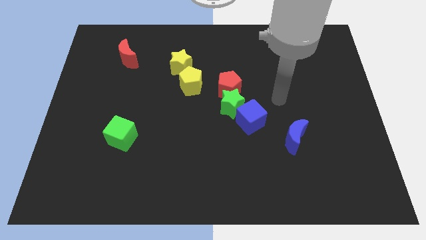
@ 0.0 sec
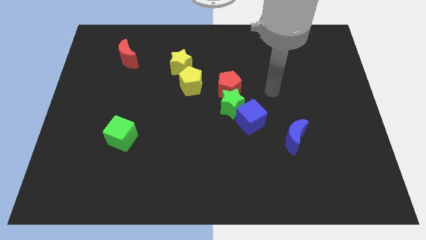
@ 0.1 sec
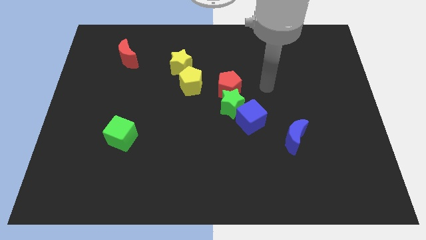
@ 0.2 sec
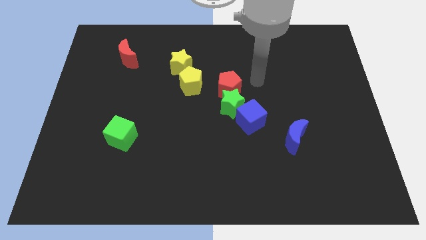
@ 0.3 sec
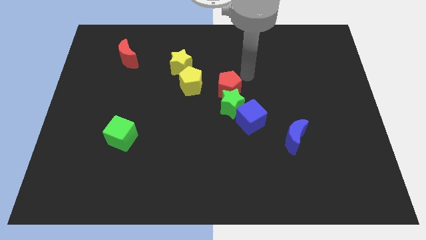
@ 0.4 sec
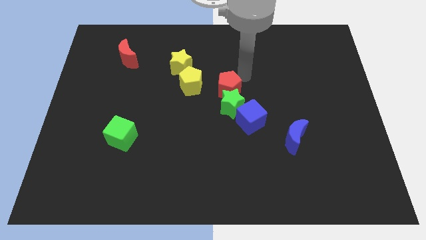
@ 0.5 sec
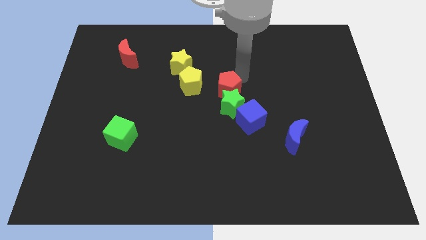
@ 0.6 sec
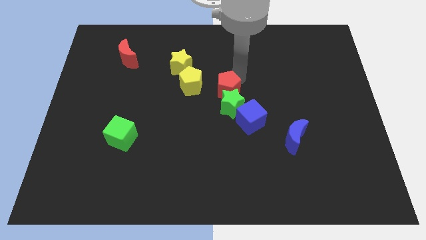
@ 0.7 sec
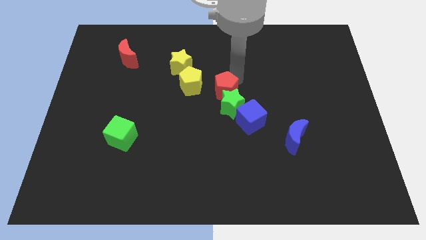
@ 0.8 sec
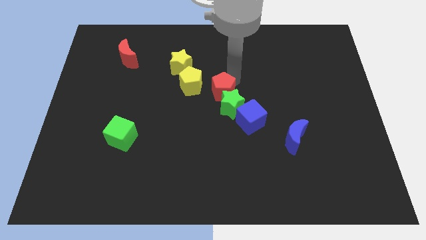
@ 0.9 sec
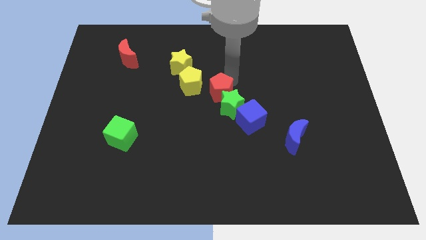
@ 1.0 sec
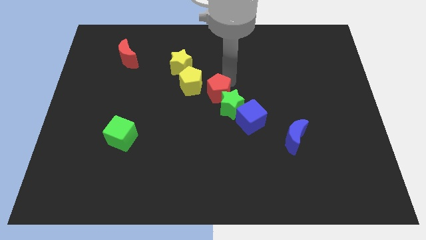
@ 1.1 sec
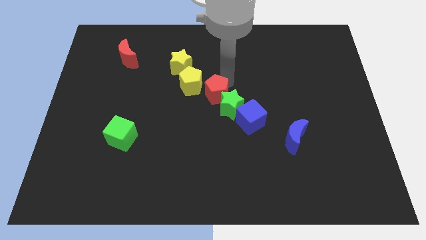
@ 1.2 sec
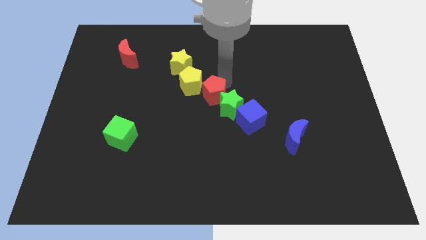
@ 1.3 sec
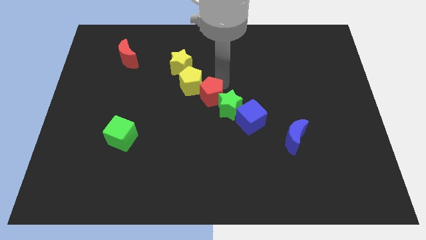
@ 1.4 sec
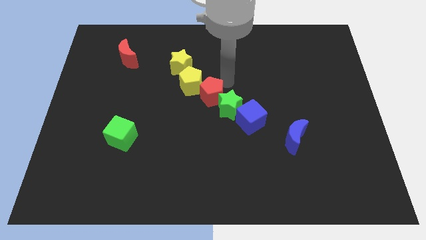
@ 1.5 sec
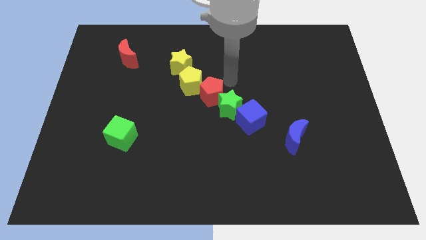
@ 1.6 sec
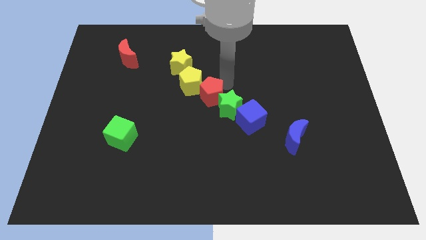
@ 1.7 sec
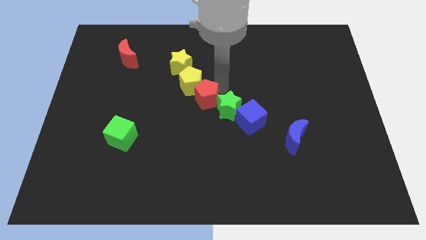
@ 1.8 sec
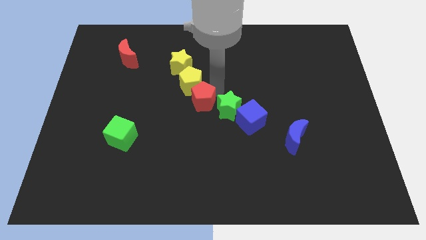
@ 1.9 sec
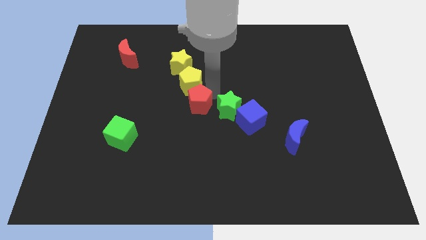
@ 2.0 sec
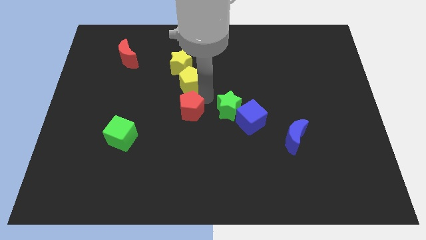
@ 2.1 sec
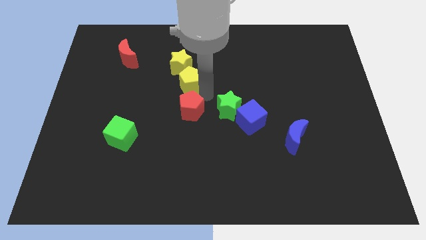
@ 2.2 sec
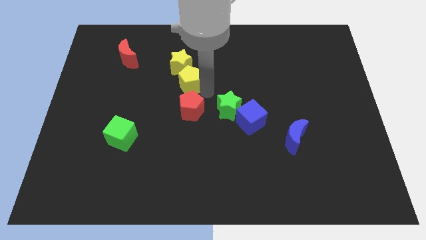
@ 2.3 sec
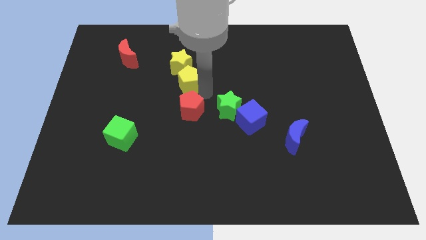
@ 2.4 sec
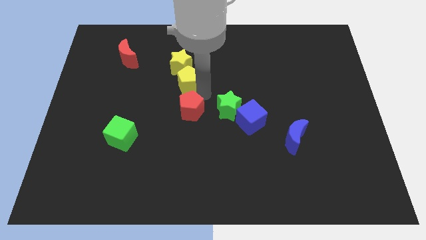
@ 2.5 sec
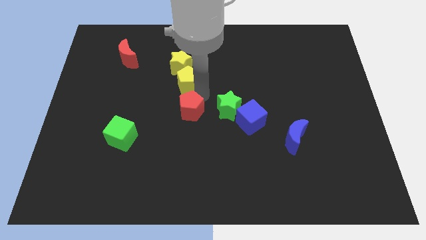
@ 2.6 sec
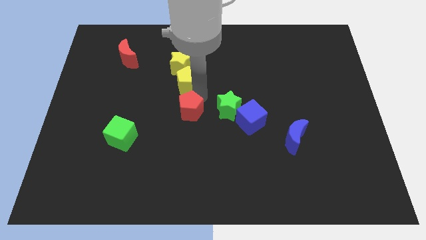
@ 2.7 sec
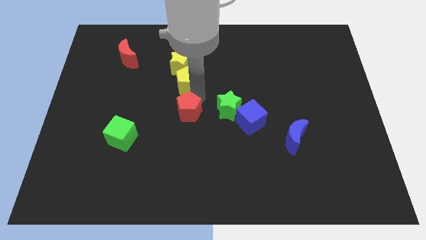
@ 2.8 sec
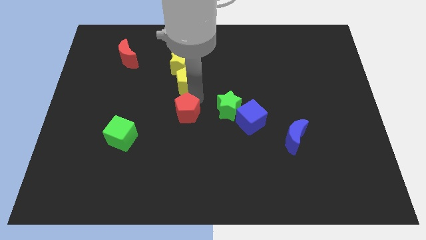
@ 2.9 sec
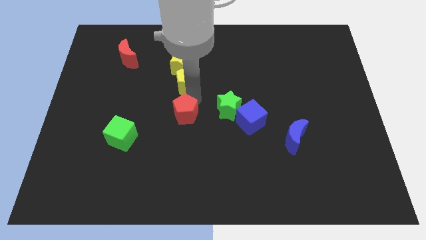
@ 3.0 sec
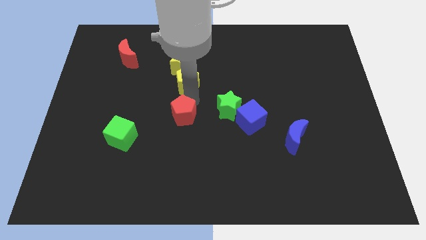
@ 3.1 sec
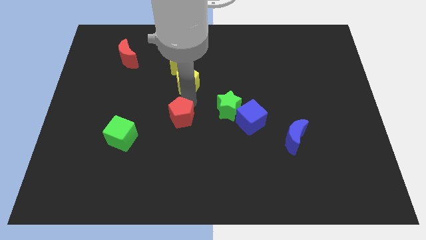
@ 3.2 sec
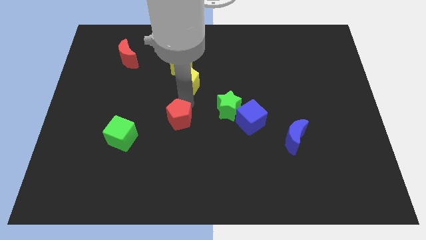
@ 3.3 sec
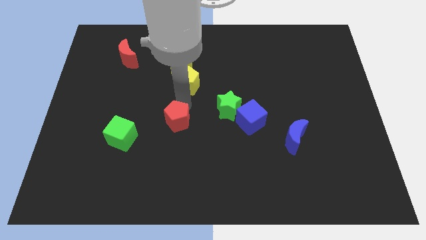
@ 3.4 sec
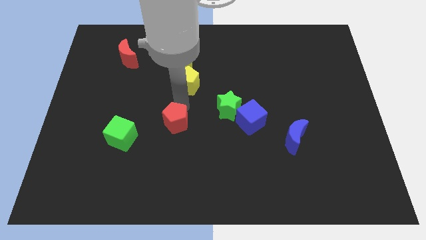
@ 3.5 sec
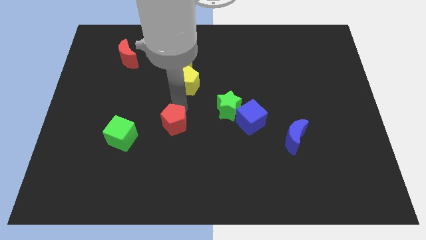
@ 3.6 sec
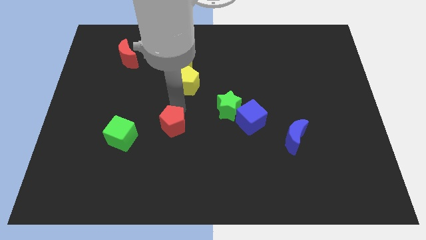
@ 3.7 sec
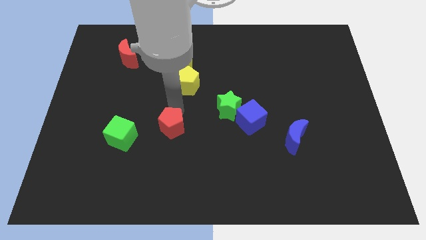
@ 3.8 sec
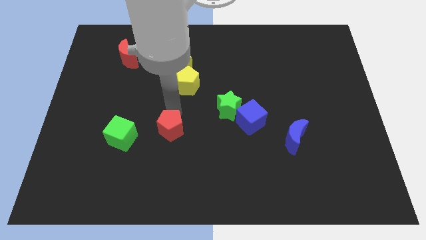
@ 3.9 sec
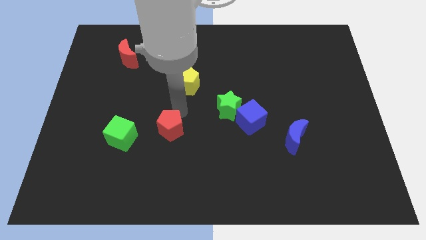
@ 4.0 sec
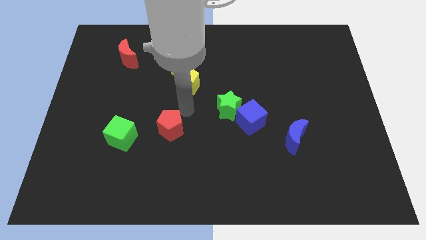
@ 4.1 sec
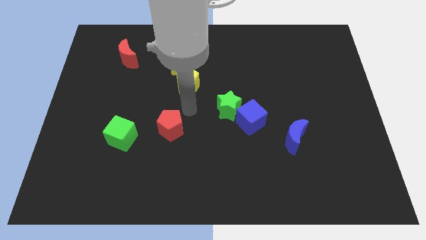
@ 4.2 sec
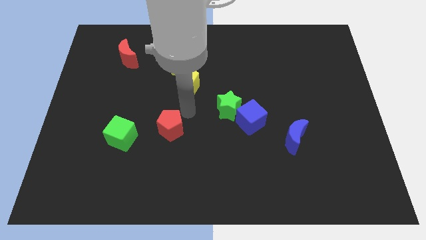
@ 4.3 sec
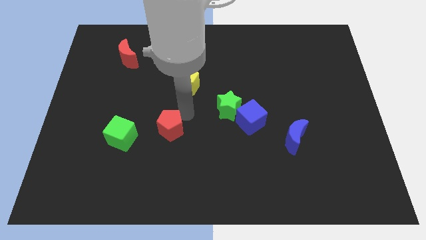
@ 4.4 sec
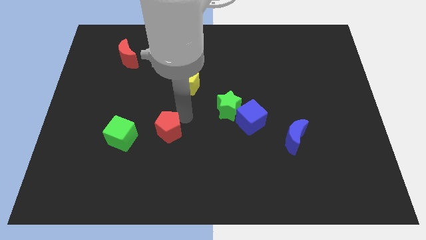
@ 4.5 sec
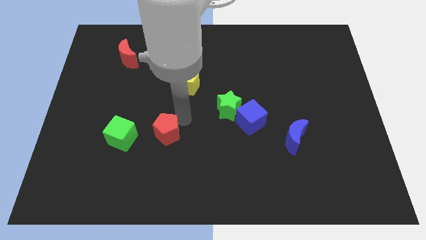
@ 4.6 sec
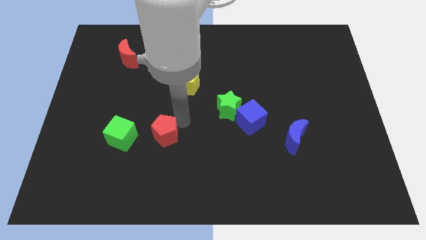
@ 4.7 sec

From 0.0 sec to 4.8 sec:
push the red pentagon diagonally downwards and to the left

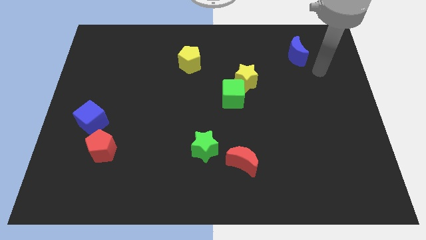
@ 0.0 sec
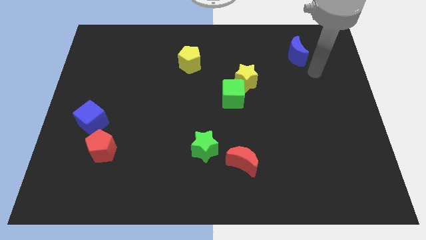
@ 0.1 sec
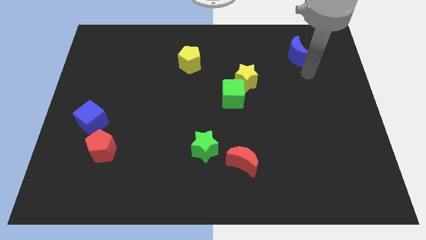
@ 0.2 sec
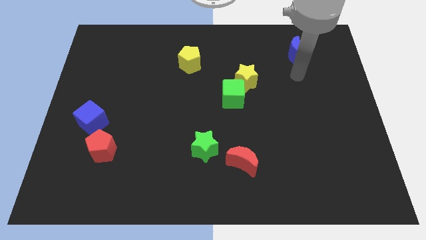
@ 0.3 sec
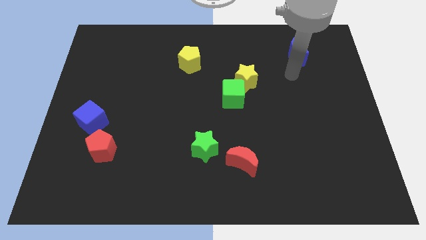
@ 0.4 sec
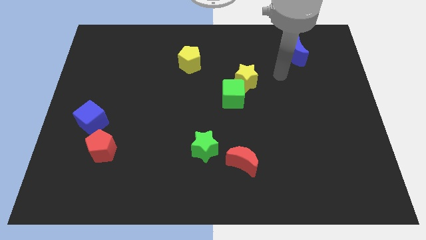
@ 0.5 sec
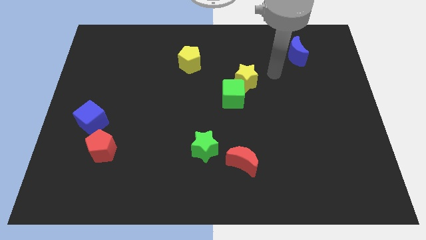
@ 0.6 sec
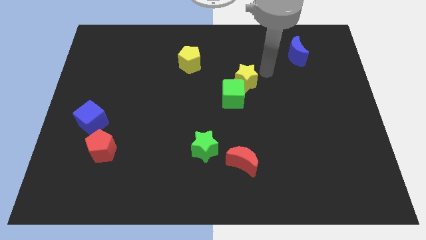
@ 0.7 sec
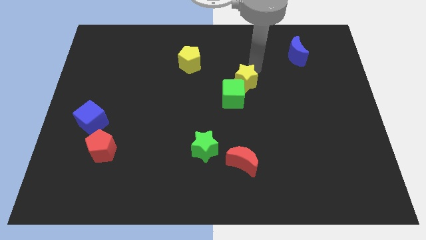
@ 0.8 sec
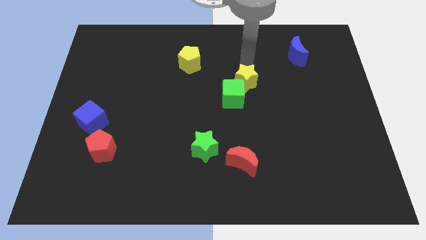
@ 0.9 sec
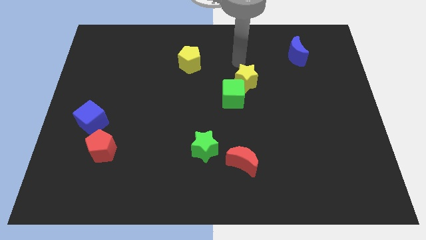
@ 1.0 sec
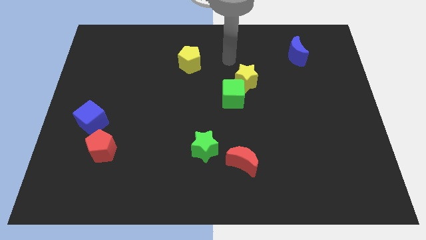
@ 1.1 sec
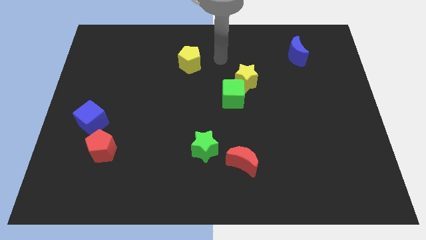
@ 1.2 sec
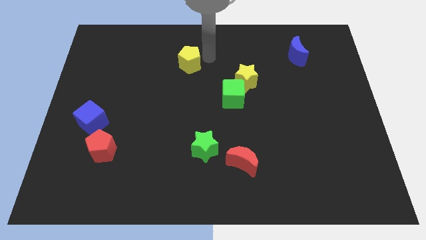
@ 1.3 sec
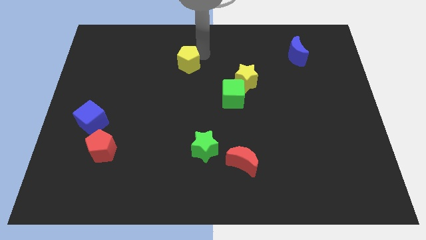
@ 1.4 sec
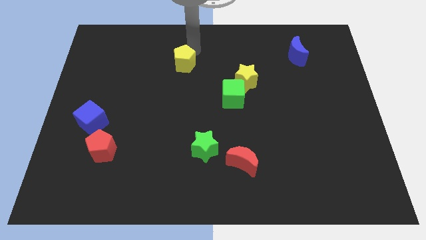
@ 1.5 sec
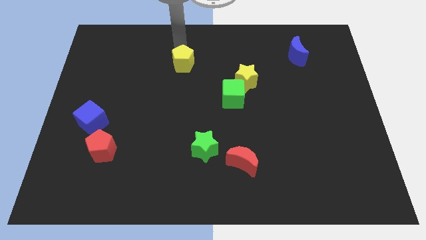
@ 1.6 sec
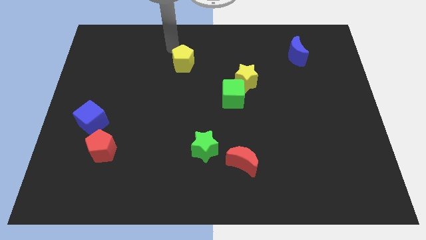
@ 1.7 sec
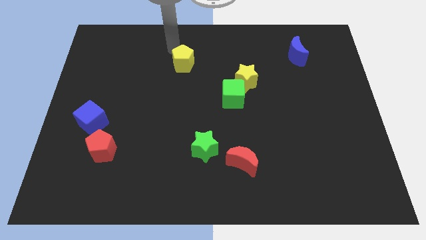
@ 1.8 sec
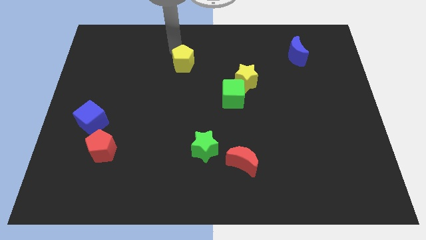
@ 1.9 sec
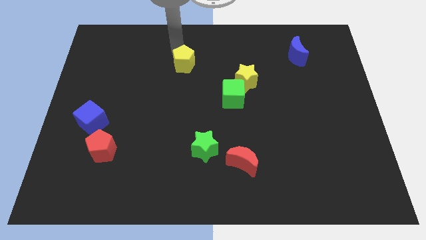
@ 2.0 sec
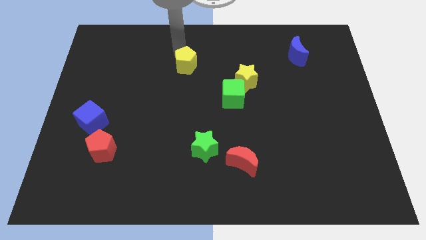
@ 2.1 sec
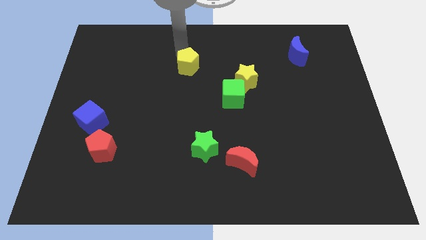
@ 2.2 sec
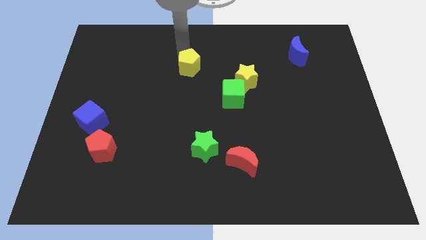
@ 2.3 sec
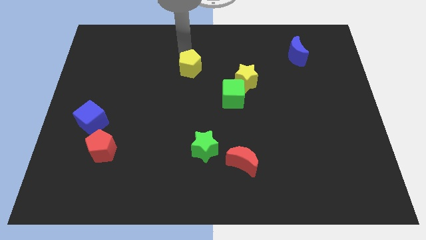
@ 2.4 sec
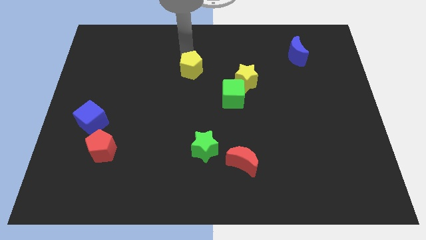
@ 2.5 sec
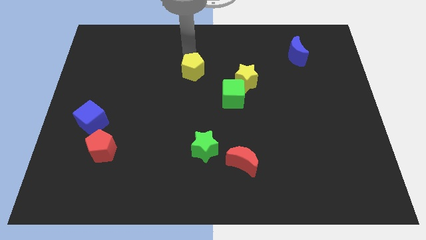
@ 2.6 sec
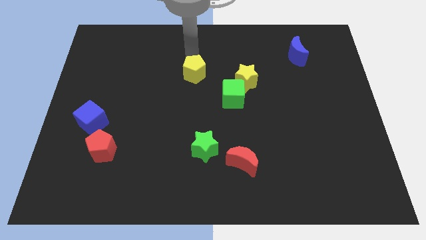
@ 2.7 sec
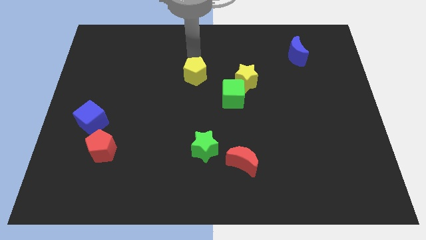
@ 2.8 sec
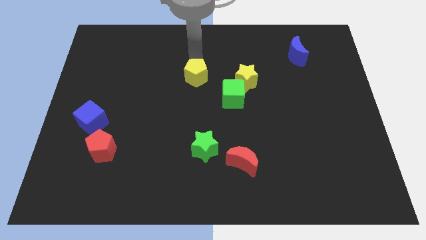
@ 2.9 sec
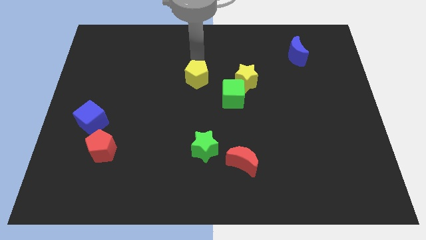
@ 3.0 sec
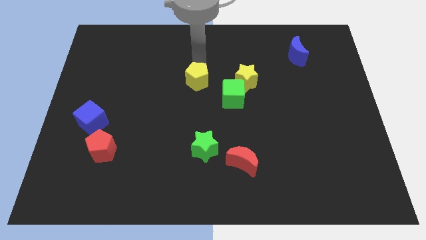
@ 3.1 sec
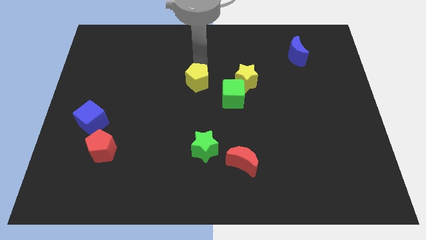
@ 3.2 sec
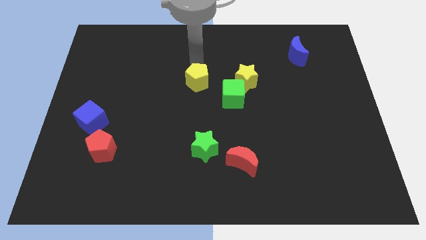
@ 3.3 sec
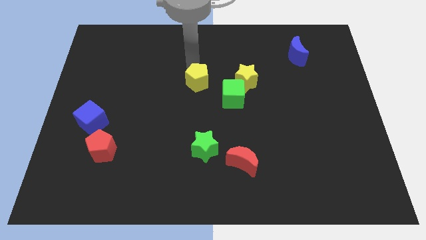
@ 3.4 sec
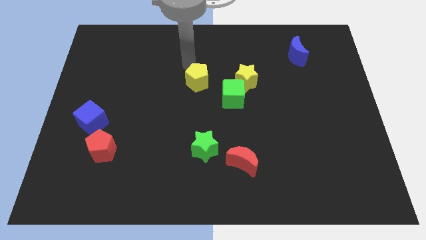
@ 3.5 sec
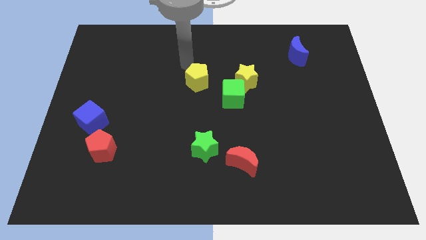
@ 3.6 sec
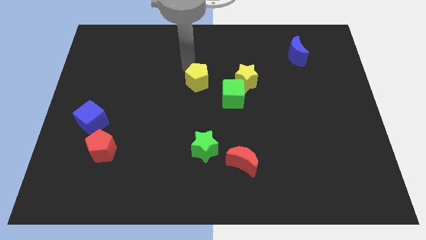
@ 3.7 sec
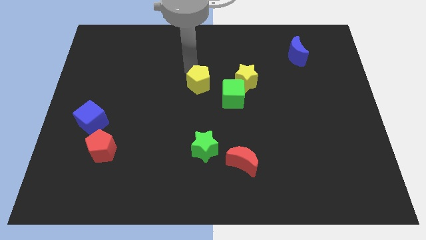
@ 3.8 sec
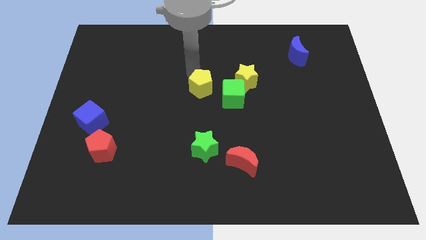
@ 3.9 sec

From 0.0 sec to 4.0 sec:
move the yellow pentagon a bit diagonally downwards and right
